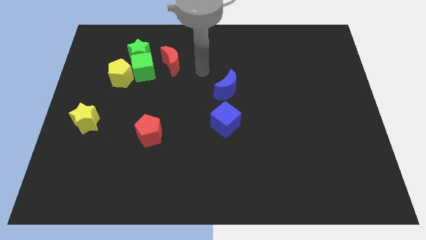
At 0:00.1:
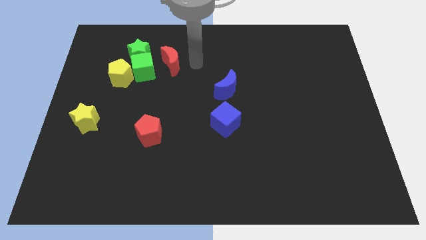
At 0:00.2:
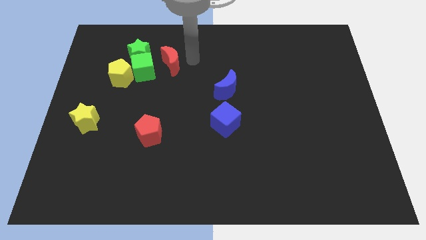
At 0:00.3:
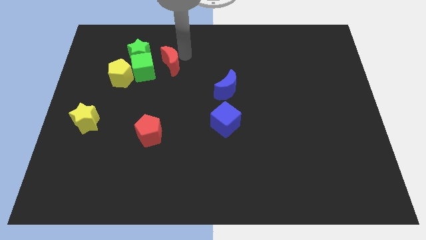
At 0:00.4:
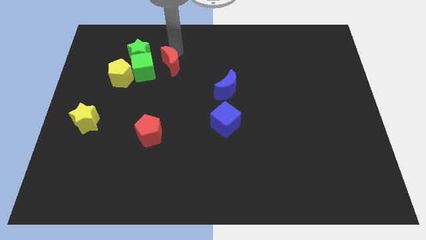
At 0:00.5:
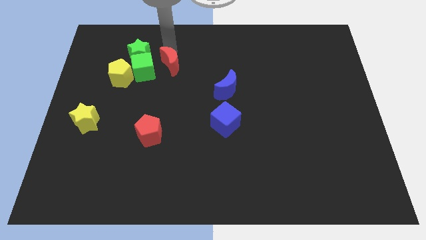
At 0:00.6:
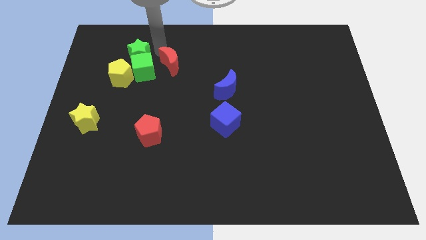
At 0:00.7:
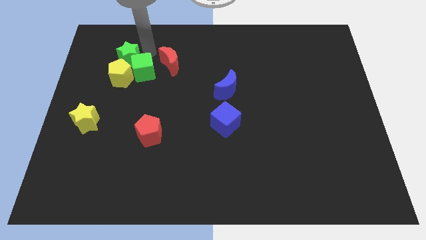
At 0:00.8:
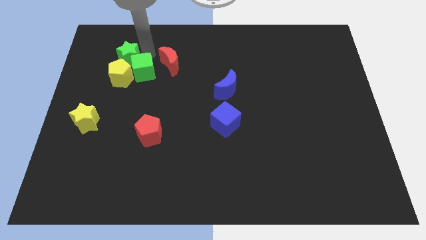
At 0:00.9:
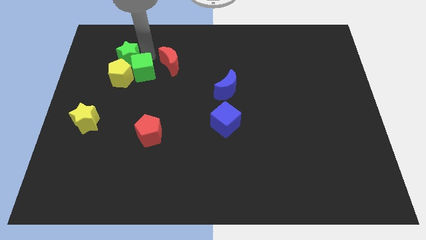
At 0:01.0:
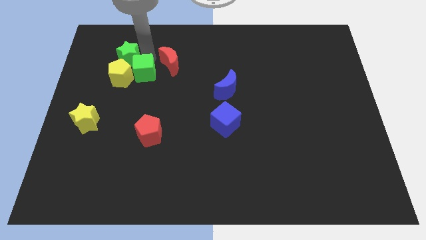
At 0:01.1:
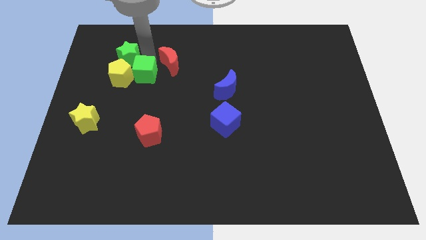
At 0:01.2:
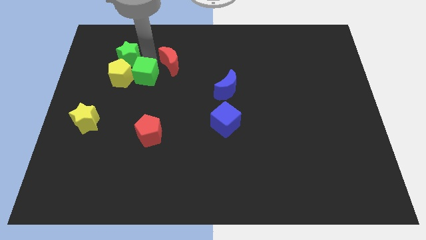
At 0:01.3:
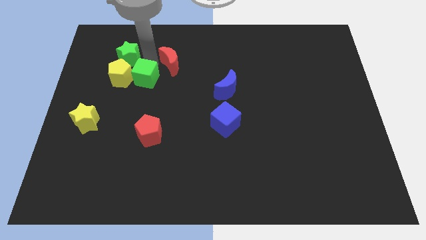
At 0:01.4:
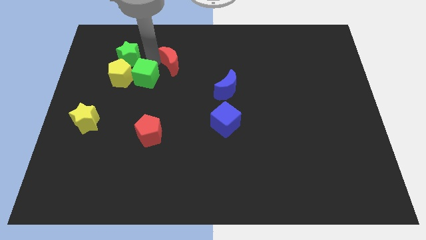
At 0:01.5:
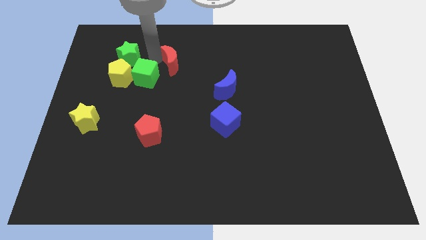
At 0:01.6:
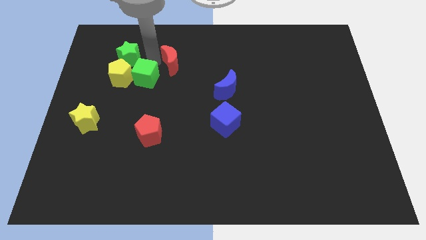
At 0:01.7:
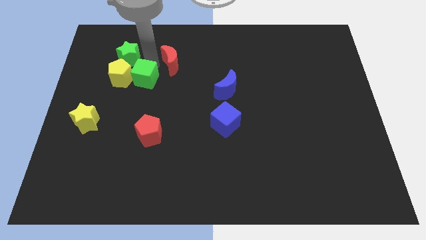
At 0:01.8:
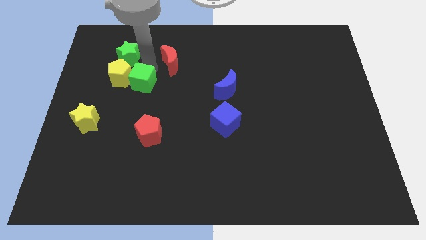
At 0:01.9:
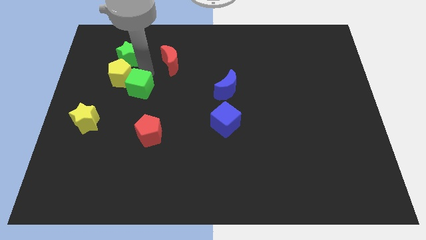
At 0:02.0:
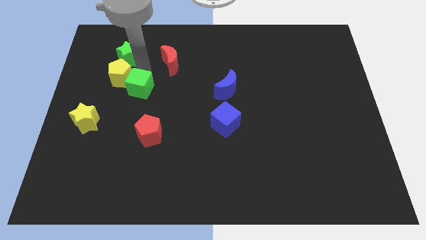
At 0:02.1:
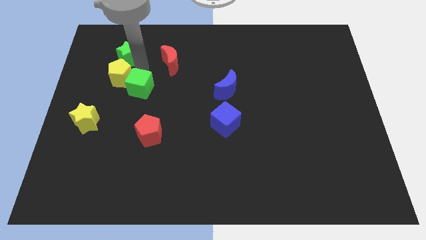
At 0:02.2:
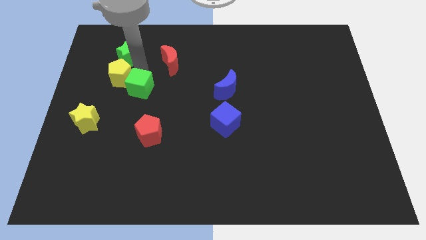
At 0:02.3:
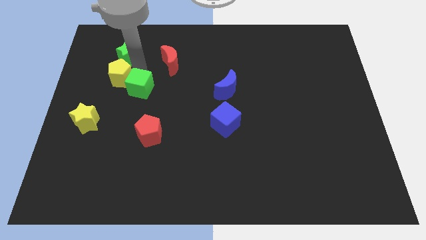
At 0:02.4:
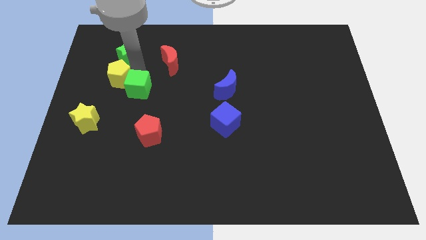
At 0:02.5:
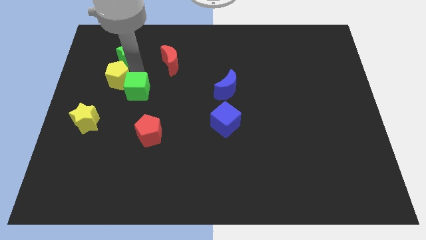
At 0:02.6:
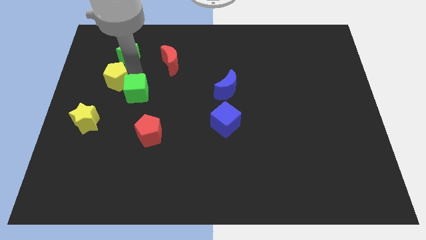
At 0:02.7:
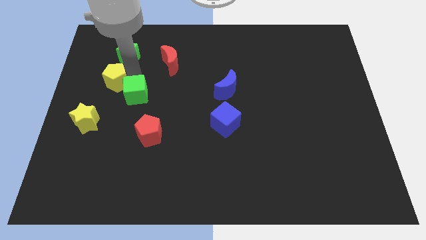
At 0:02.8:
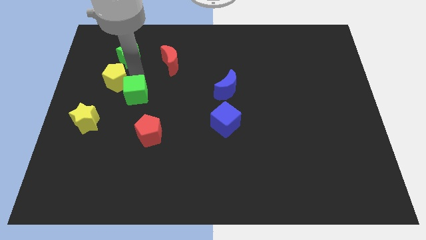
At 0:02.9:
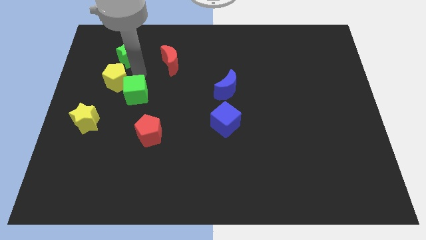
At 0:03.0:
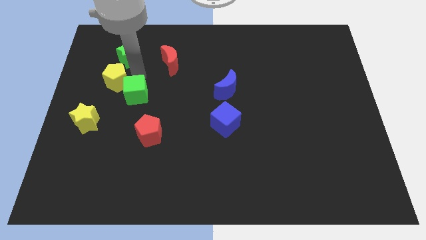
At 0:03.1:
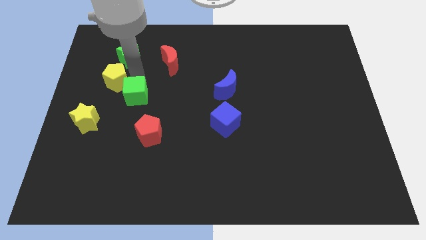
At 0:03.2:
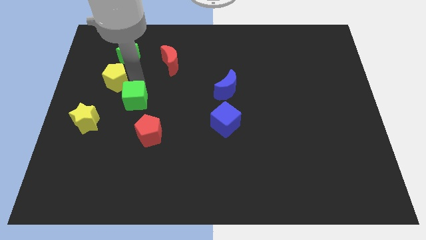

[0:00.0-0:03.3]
separate the green cube from the group of blocks

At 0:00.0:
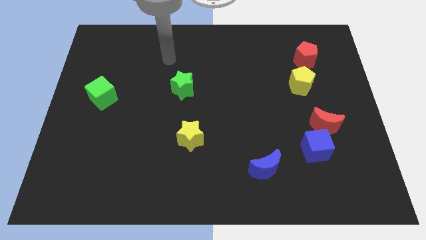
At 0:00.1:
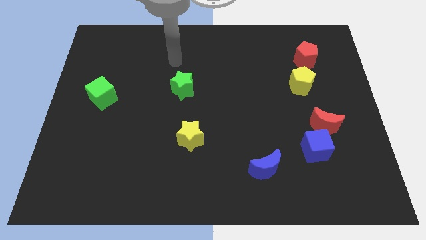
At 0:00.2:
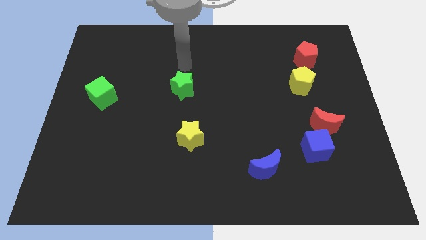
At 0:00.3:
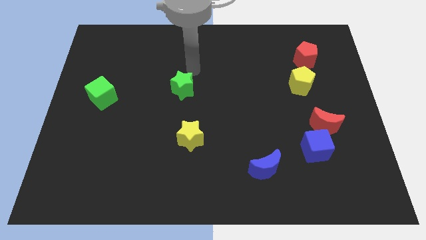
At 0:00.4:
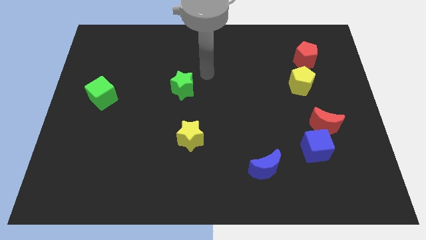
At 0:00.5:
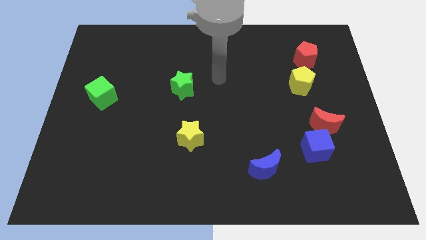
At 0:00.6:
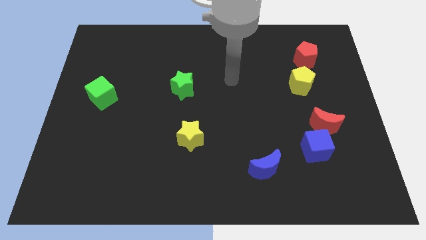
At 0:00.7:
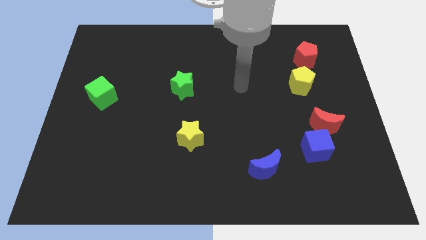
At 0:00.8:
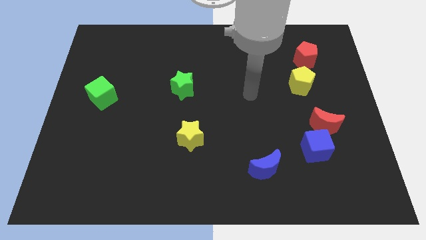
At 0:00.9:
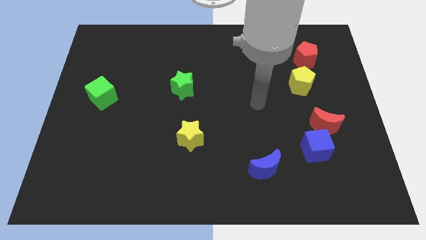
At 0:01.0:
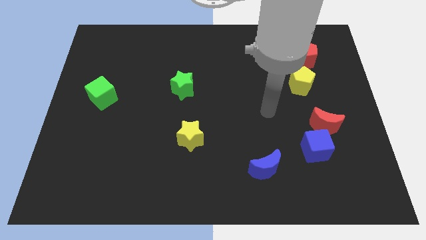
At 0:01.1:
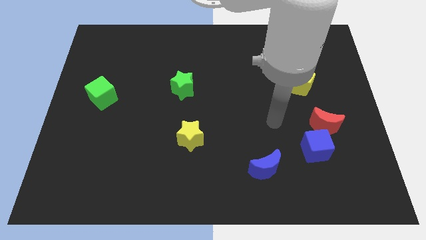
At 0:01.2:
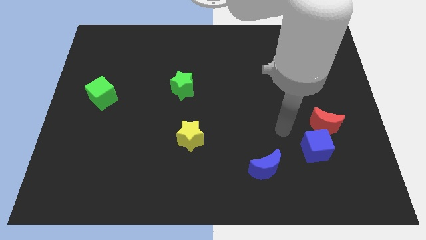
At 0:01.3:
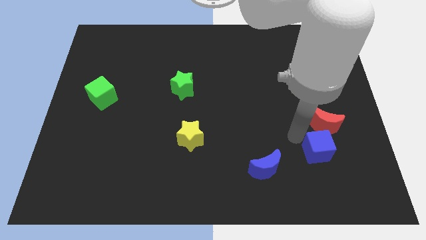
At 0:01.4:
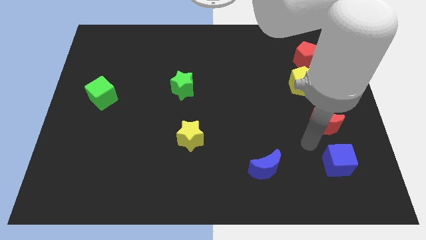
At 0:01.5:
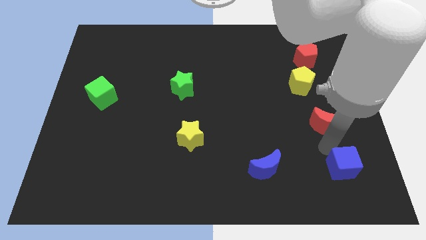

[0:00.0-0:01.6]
separate the red moon from the blue cube

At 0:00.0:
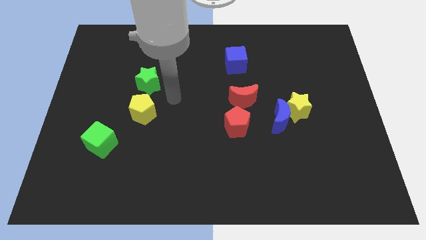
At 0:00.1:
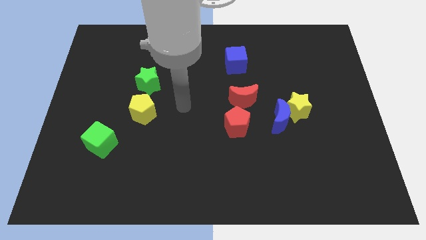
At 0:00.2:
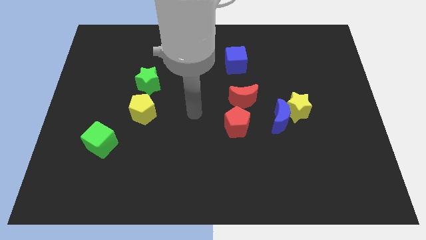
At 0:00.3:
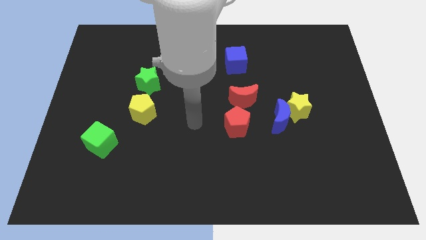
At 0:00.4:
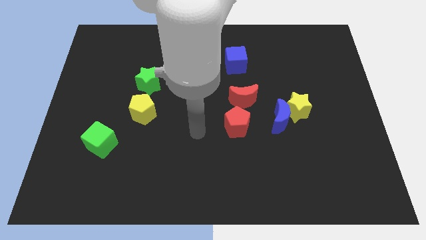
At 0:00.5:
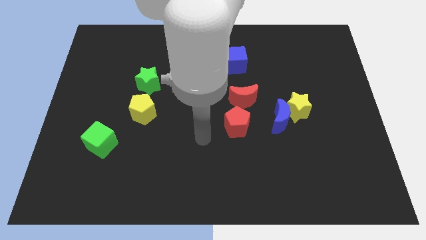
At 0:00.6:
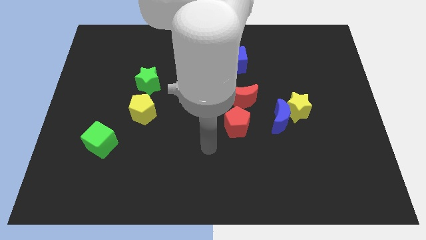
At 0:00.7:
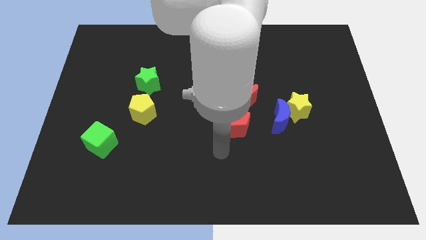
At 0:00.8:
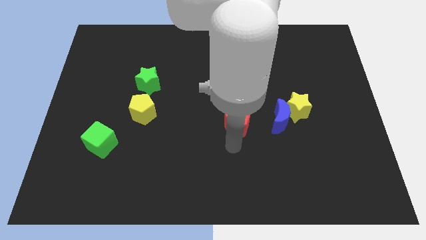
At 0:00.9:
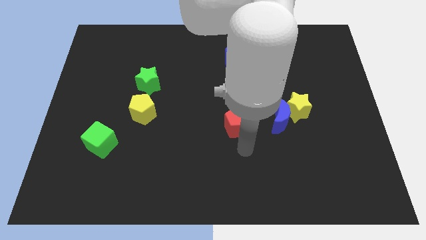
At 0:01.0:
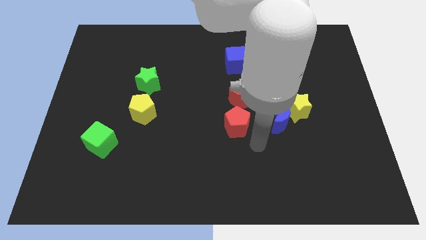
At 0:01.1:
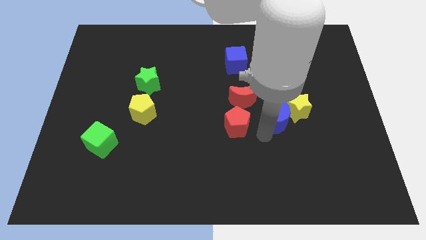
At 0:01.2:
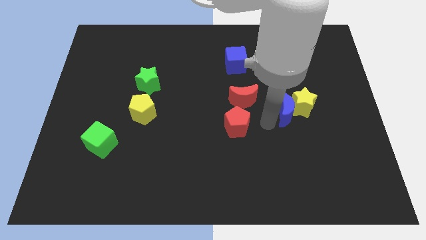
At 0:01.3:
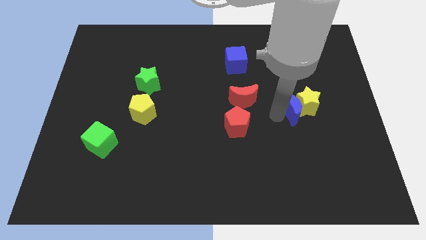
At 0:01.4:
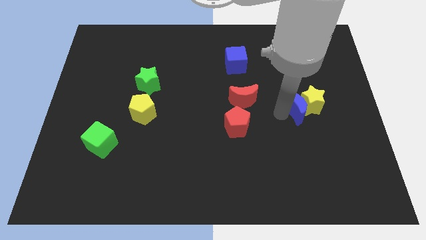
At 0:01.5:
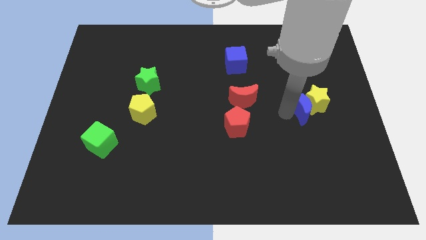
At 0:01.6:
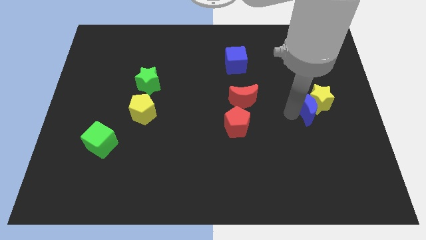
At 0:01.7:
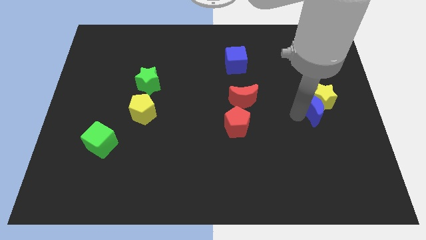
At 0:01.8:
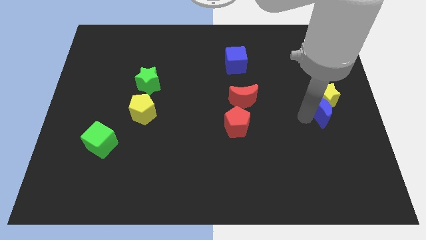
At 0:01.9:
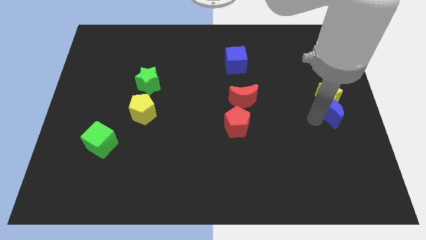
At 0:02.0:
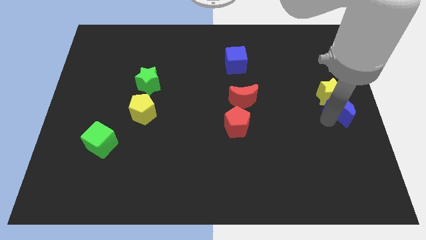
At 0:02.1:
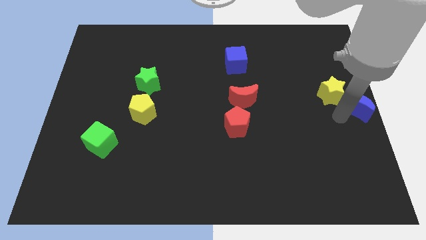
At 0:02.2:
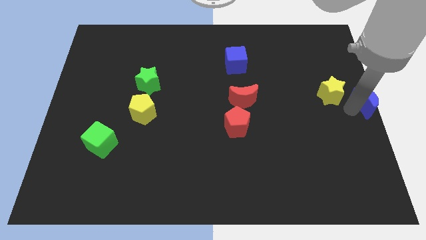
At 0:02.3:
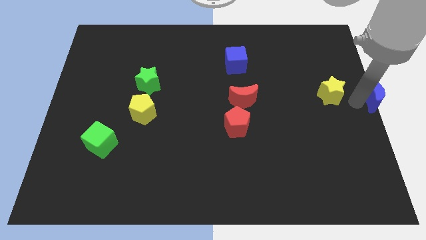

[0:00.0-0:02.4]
separate the yellow star from the blue moon

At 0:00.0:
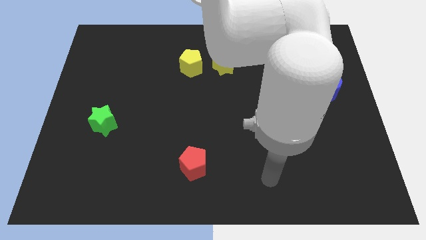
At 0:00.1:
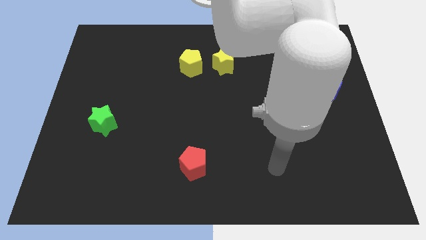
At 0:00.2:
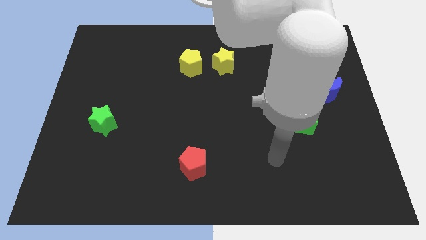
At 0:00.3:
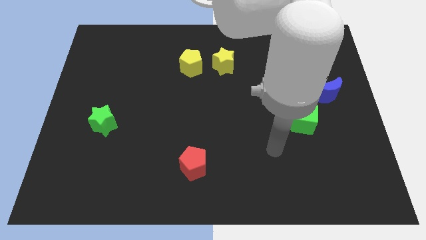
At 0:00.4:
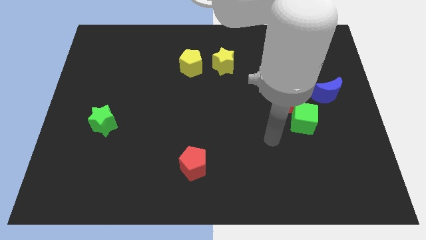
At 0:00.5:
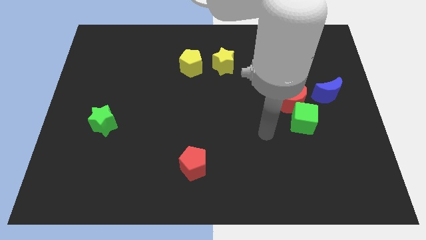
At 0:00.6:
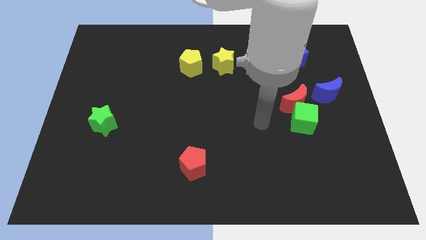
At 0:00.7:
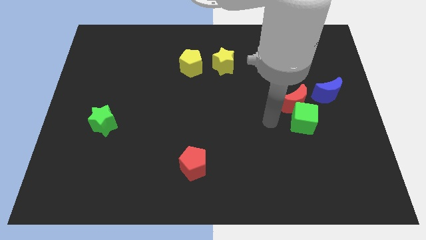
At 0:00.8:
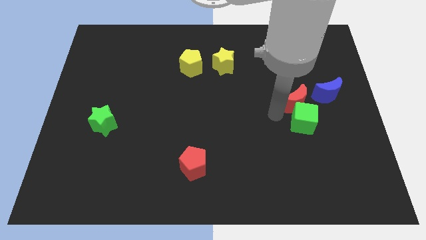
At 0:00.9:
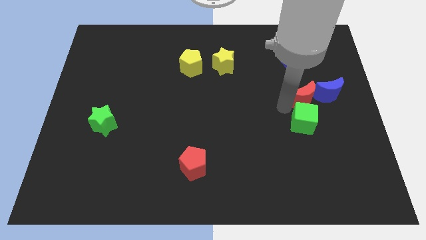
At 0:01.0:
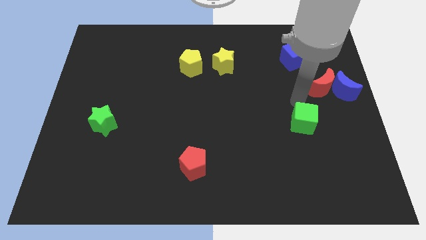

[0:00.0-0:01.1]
separate the green cube from the red moon

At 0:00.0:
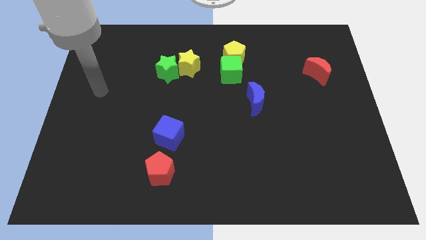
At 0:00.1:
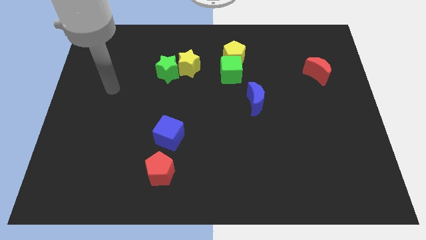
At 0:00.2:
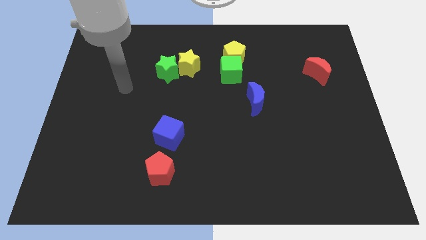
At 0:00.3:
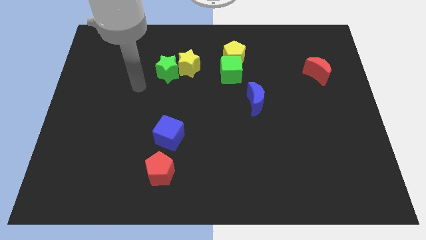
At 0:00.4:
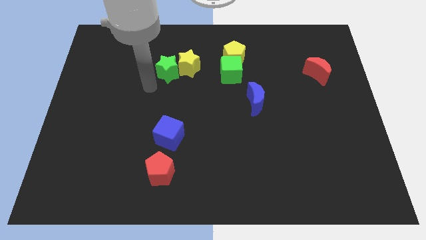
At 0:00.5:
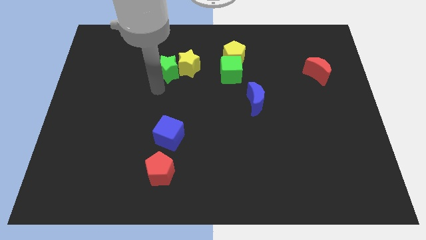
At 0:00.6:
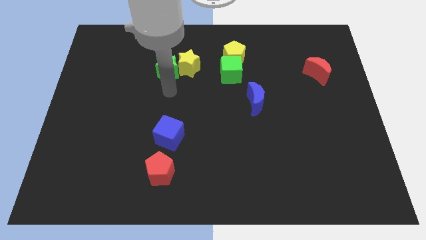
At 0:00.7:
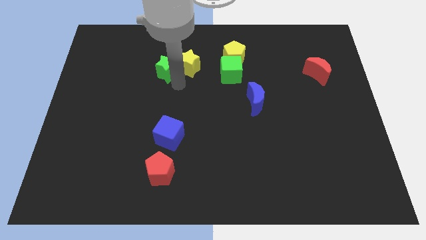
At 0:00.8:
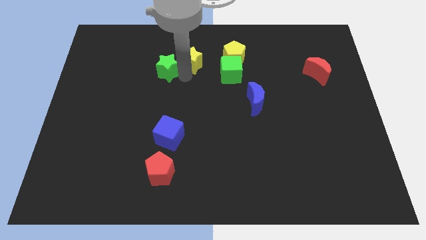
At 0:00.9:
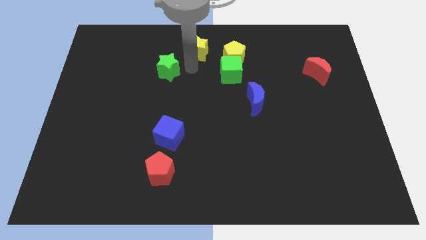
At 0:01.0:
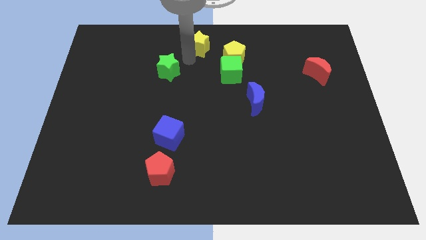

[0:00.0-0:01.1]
pull the green star apart from the yellow star

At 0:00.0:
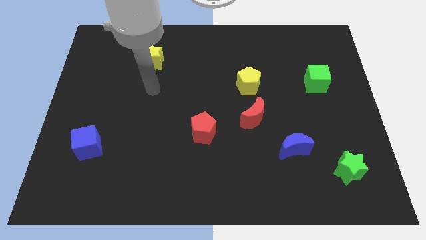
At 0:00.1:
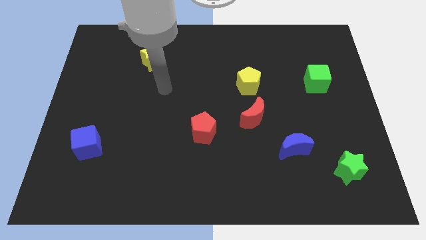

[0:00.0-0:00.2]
move the red moon away from the yellow pentagon
